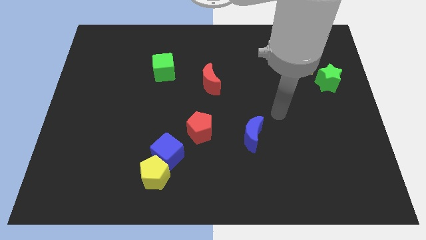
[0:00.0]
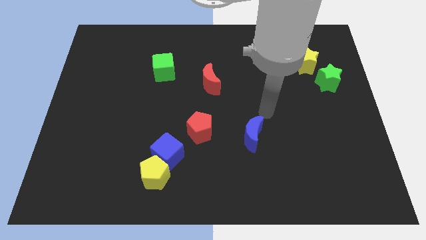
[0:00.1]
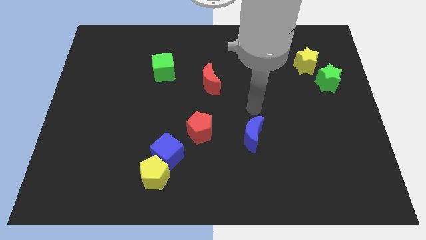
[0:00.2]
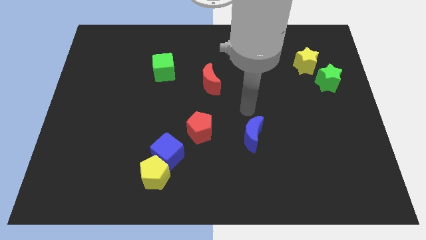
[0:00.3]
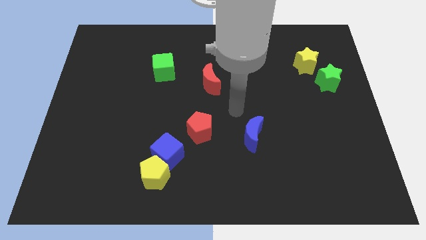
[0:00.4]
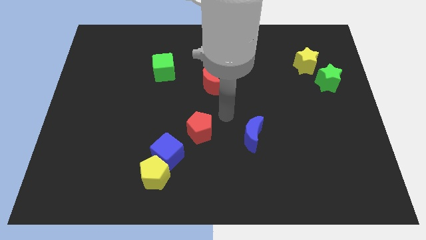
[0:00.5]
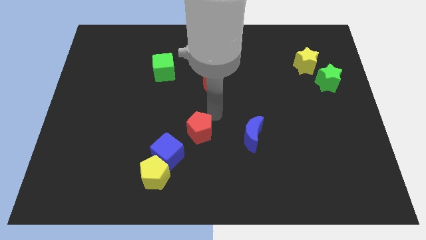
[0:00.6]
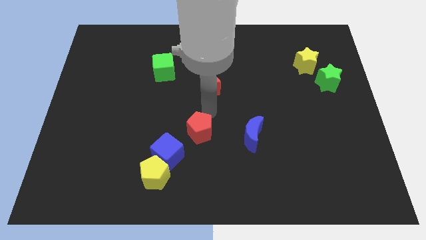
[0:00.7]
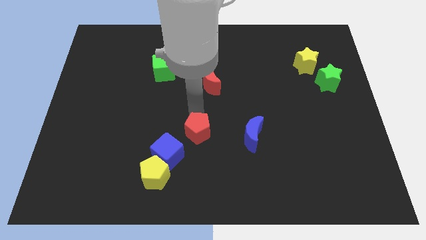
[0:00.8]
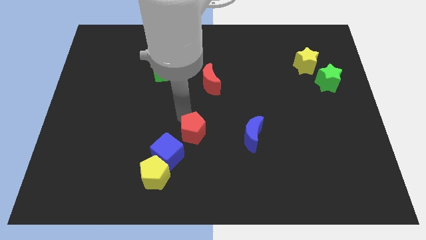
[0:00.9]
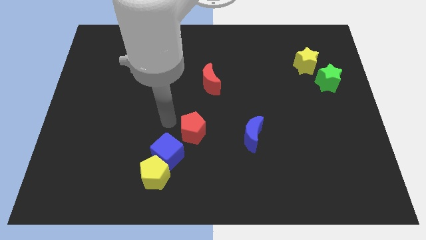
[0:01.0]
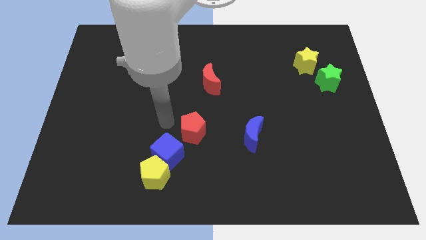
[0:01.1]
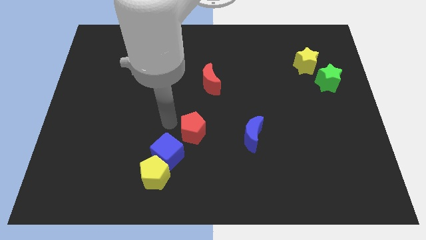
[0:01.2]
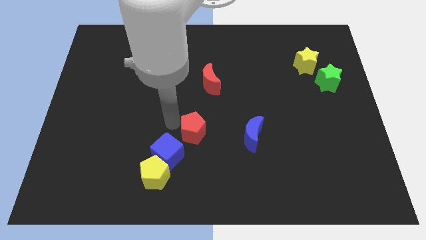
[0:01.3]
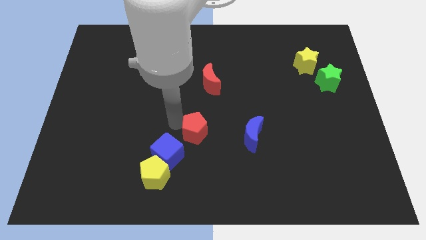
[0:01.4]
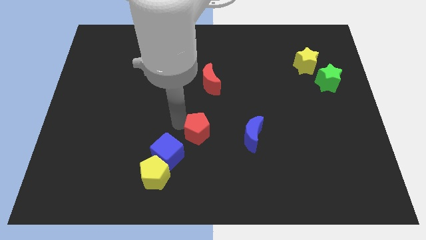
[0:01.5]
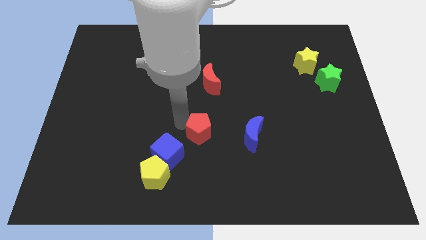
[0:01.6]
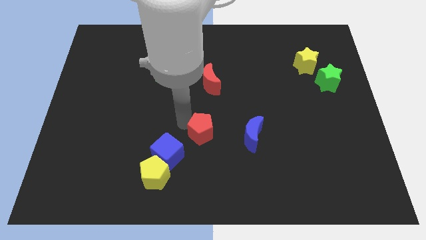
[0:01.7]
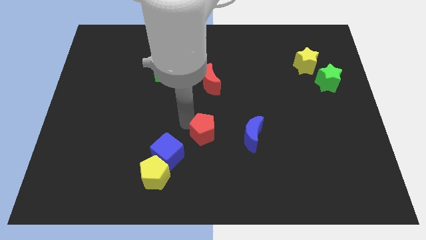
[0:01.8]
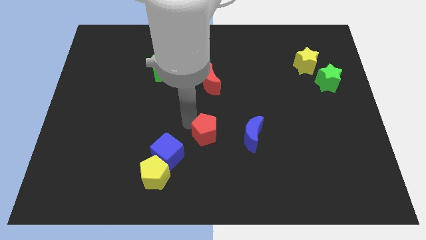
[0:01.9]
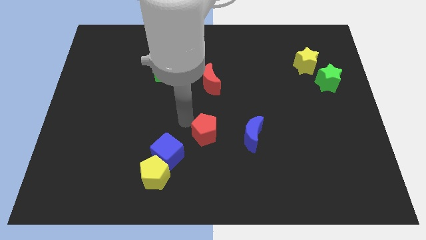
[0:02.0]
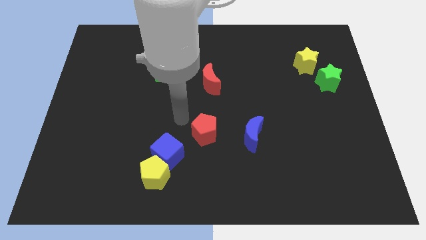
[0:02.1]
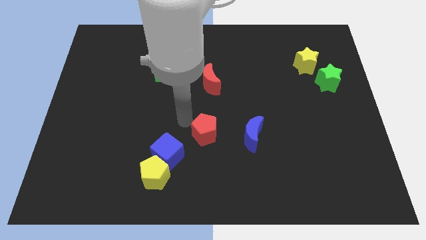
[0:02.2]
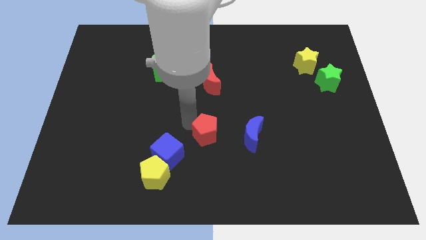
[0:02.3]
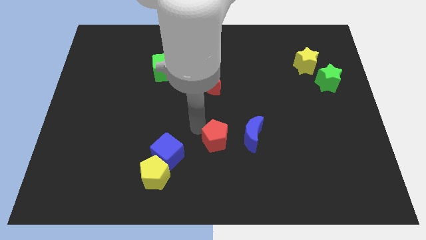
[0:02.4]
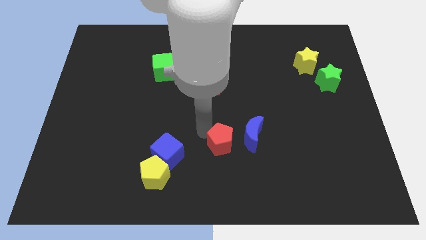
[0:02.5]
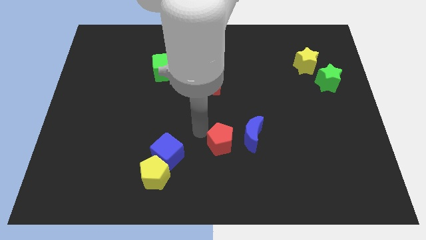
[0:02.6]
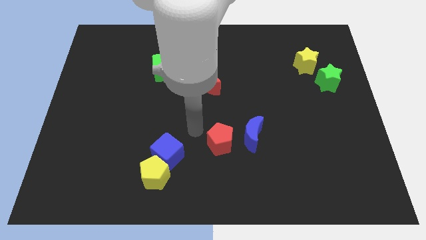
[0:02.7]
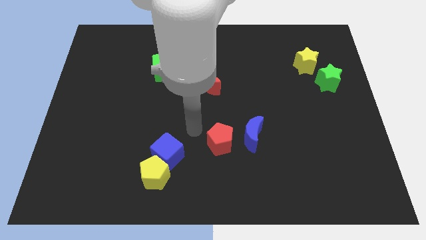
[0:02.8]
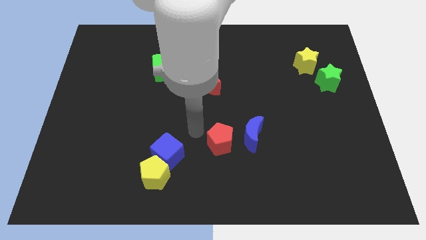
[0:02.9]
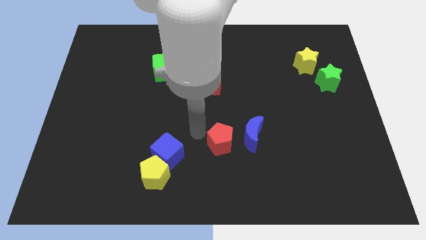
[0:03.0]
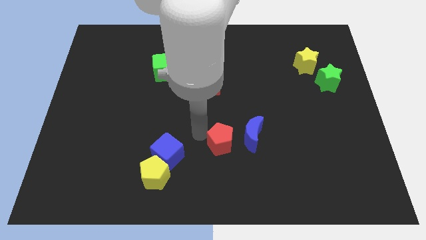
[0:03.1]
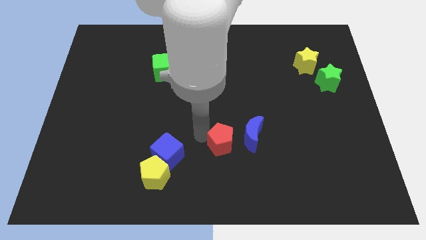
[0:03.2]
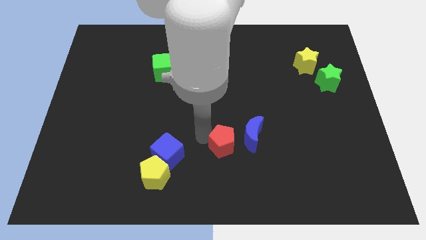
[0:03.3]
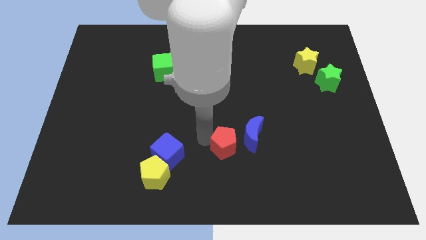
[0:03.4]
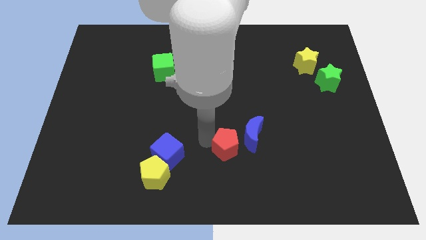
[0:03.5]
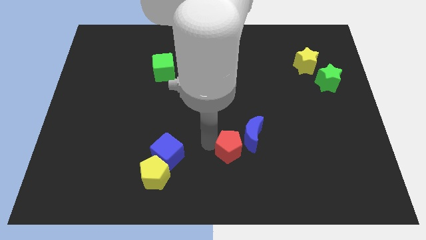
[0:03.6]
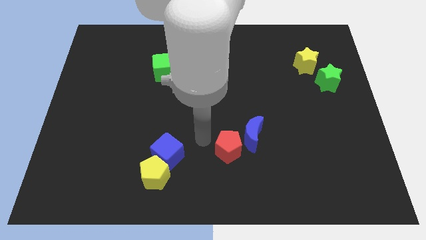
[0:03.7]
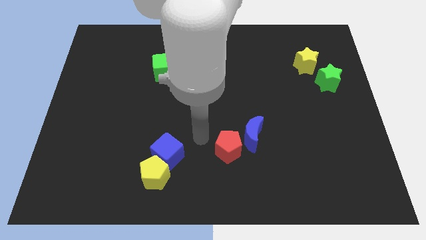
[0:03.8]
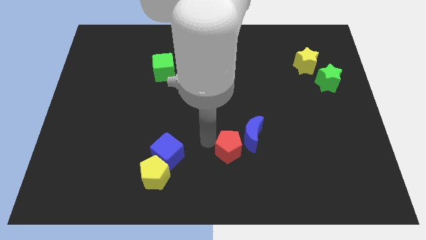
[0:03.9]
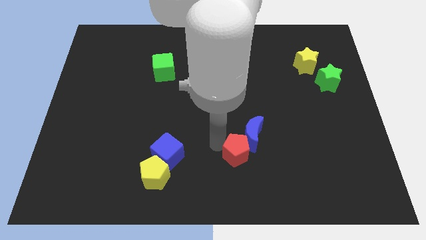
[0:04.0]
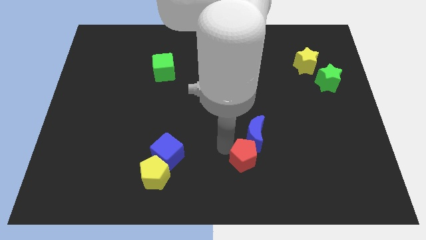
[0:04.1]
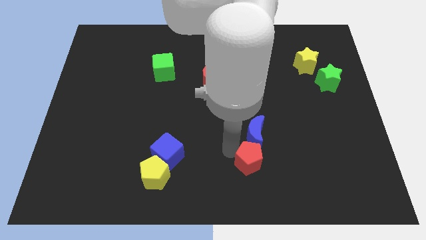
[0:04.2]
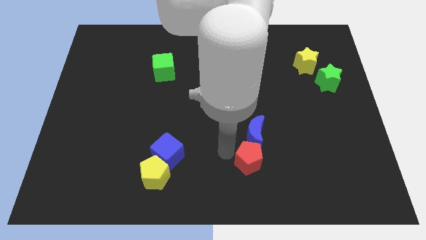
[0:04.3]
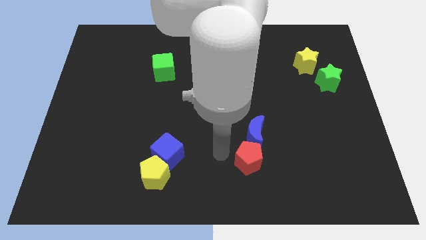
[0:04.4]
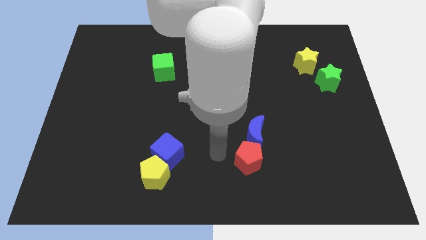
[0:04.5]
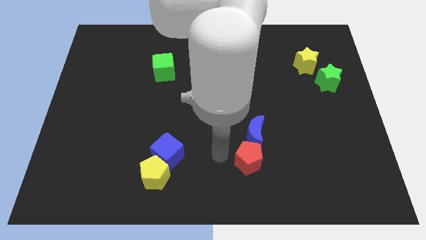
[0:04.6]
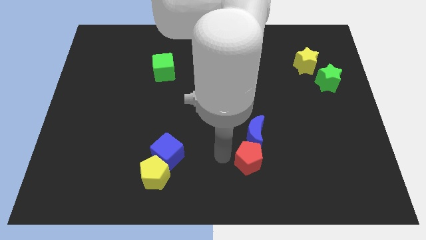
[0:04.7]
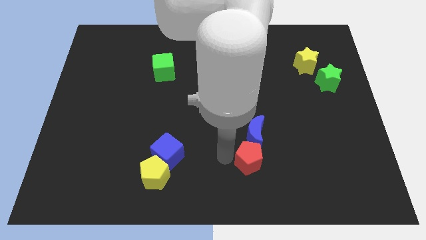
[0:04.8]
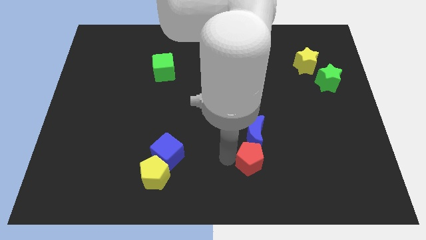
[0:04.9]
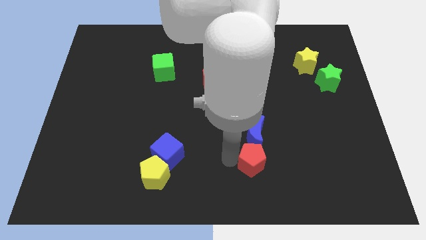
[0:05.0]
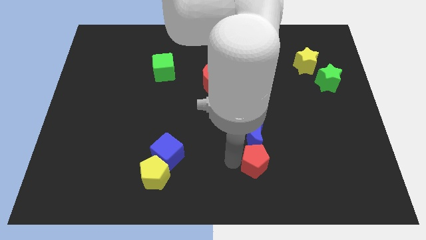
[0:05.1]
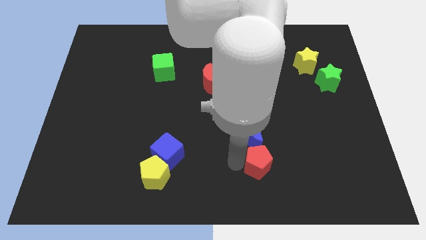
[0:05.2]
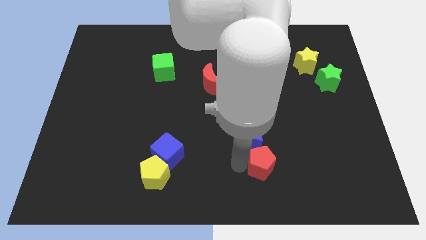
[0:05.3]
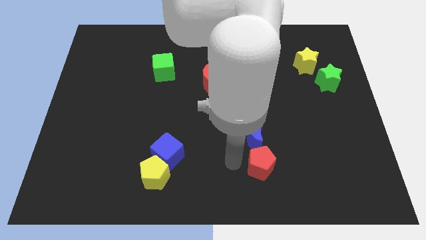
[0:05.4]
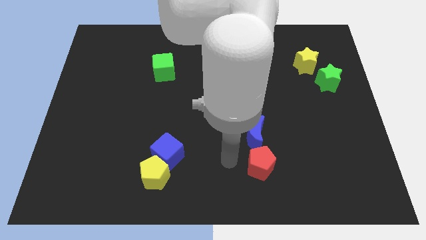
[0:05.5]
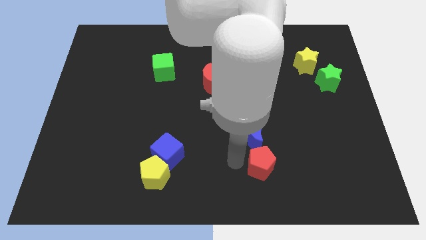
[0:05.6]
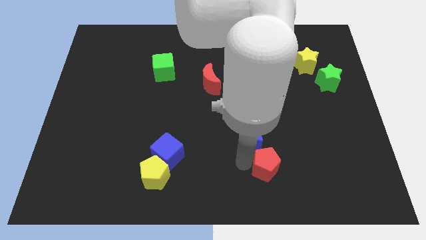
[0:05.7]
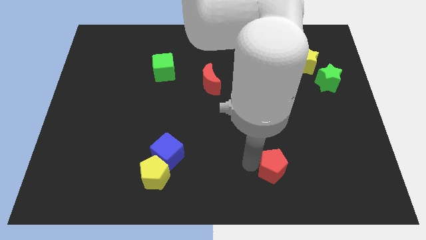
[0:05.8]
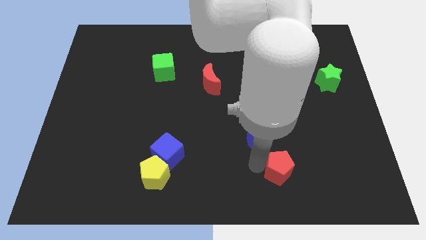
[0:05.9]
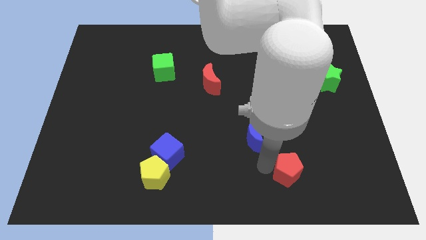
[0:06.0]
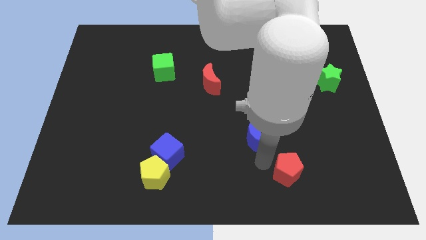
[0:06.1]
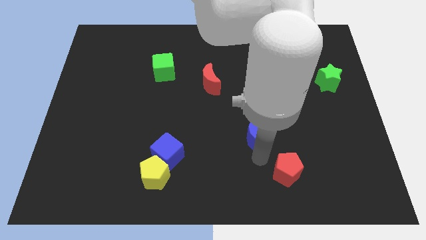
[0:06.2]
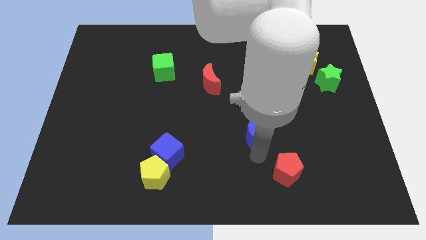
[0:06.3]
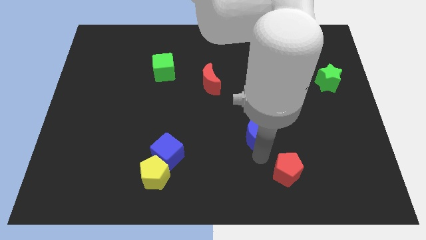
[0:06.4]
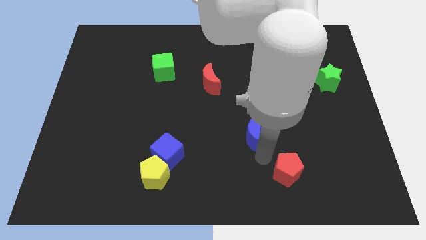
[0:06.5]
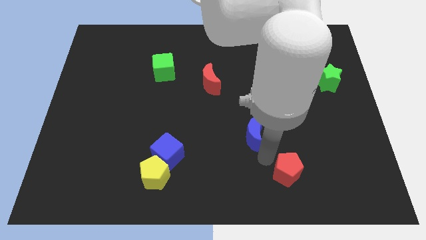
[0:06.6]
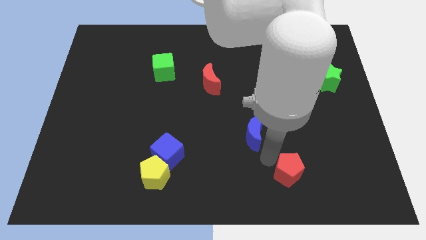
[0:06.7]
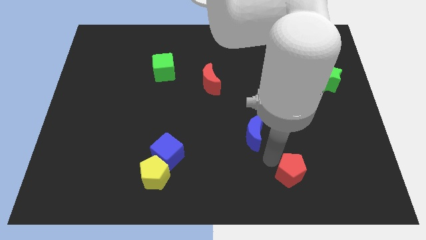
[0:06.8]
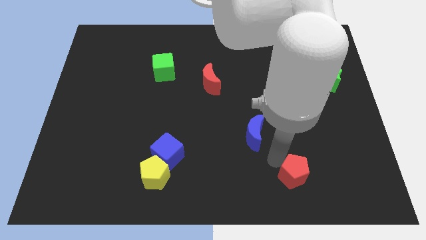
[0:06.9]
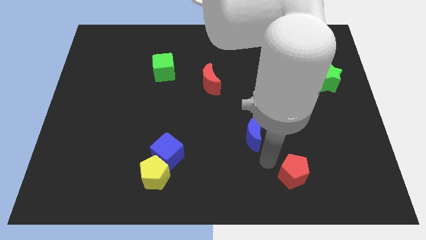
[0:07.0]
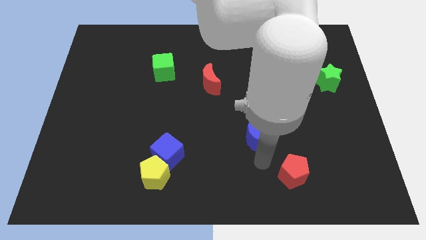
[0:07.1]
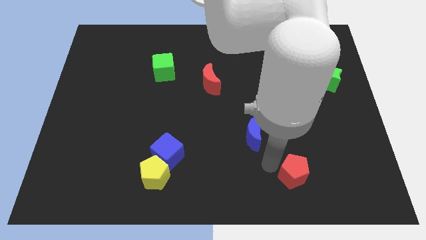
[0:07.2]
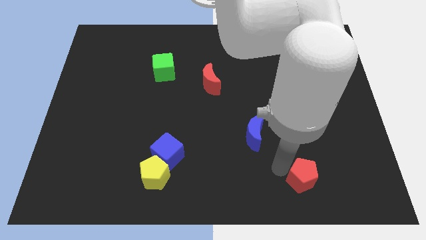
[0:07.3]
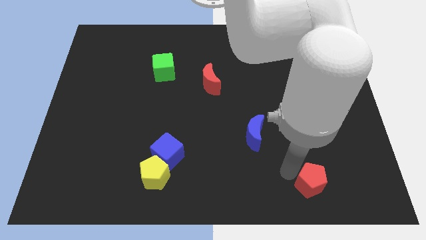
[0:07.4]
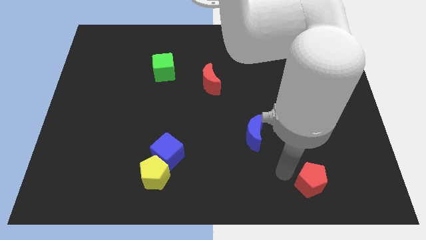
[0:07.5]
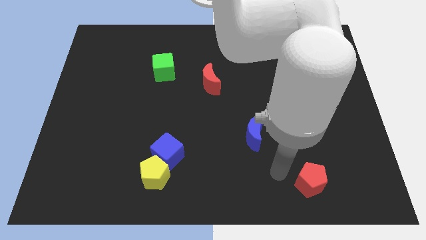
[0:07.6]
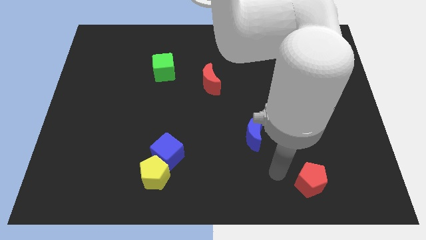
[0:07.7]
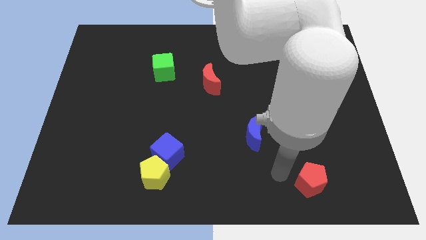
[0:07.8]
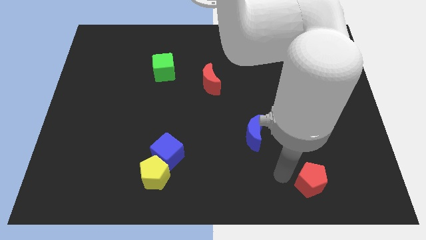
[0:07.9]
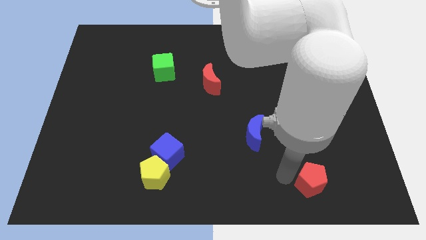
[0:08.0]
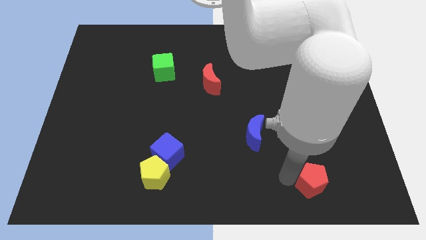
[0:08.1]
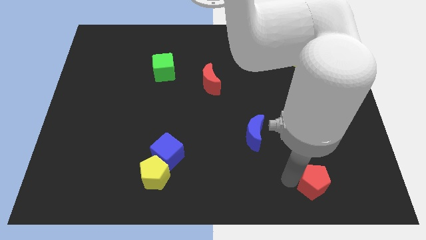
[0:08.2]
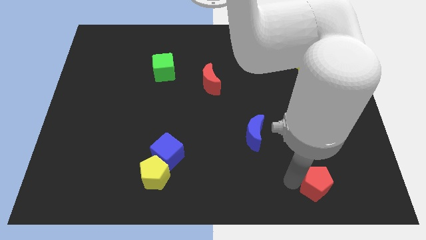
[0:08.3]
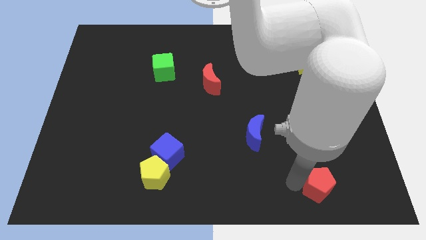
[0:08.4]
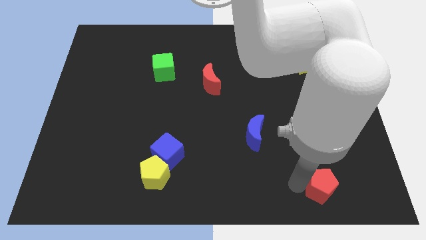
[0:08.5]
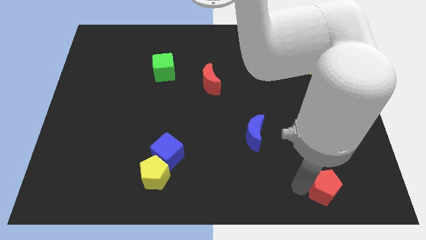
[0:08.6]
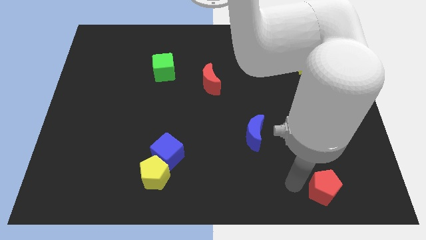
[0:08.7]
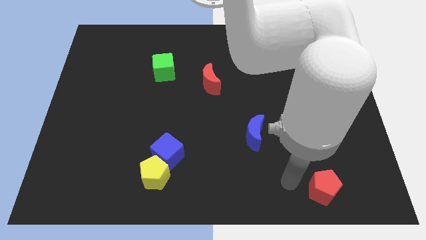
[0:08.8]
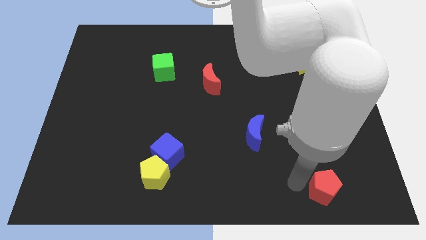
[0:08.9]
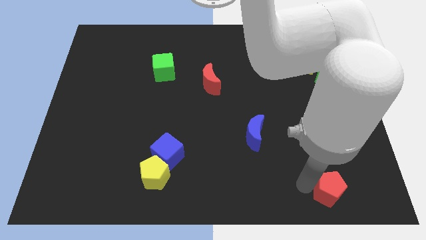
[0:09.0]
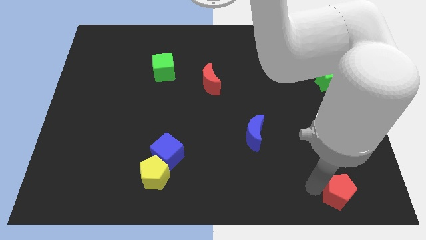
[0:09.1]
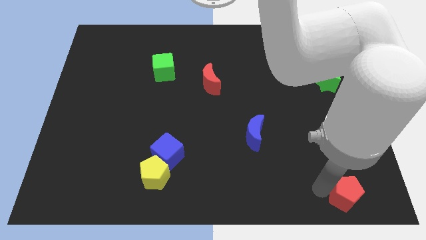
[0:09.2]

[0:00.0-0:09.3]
move the red pentagon to the bottom right of the board
